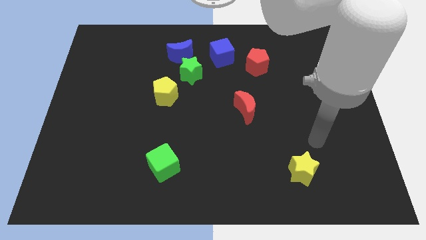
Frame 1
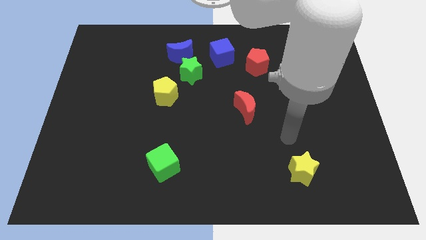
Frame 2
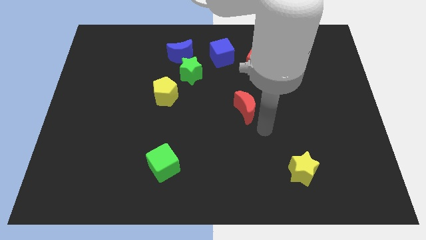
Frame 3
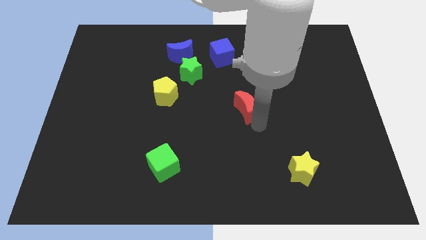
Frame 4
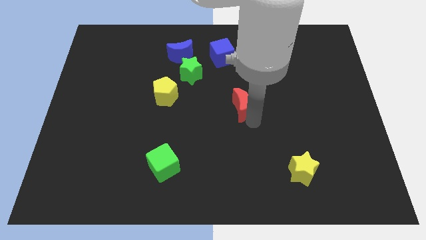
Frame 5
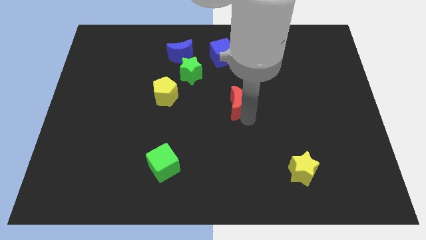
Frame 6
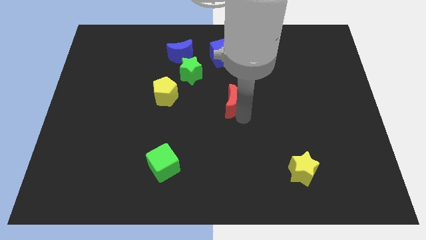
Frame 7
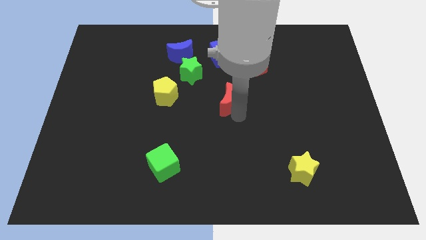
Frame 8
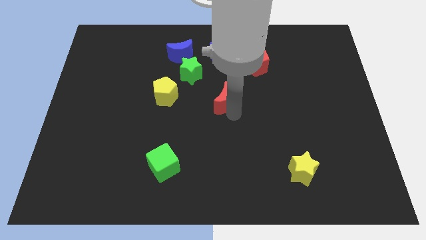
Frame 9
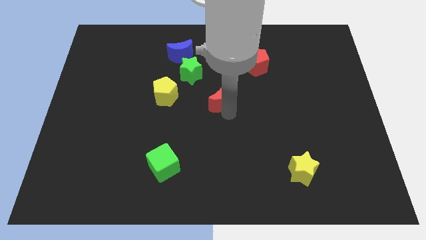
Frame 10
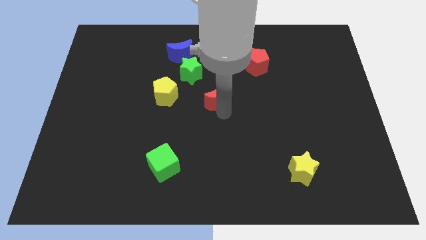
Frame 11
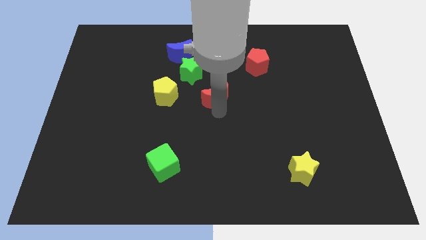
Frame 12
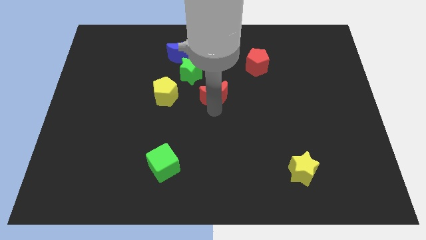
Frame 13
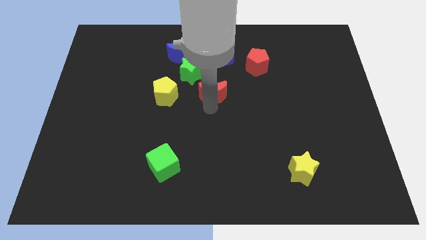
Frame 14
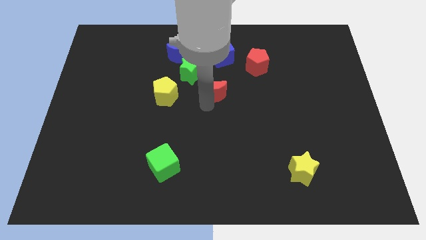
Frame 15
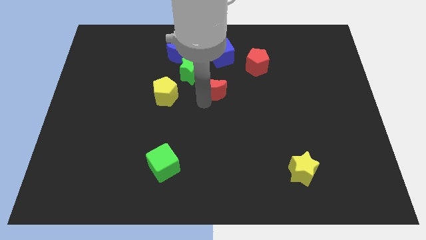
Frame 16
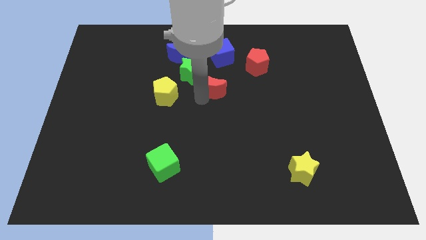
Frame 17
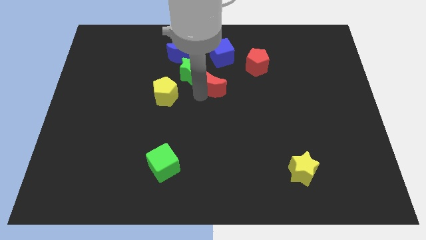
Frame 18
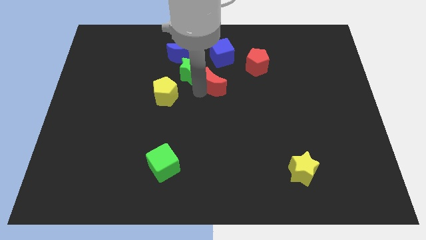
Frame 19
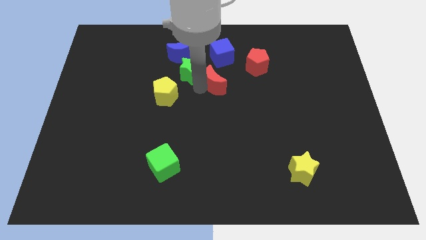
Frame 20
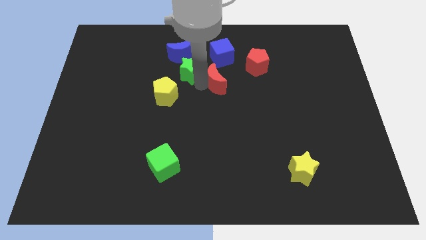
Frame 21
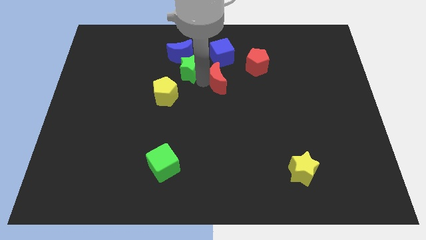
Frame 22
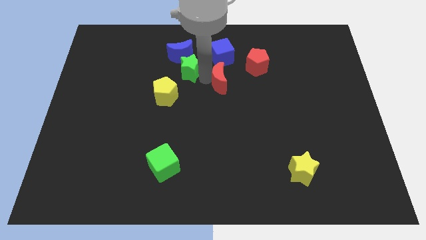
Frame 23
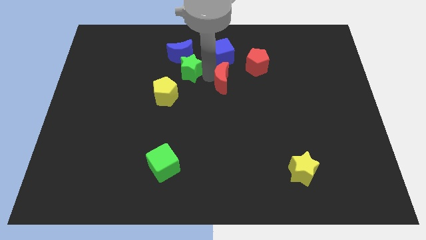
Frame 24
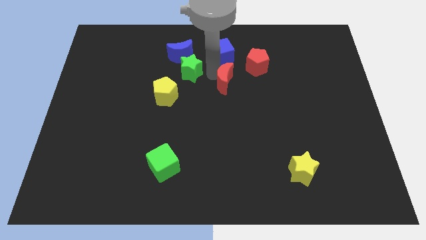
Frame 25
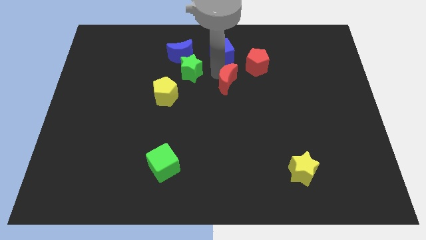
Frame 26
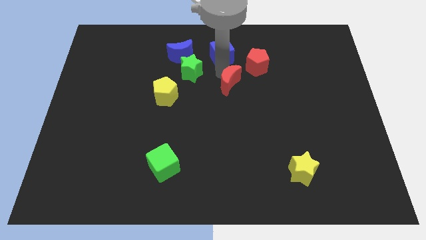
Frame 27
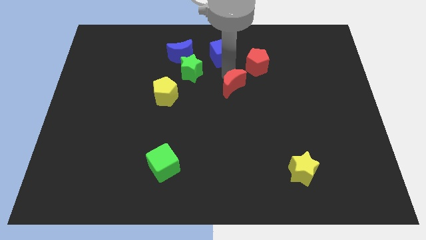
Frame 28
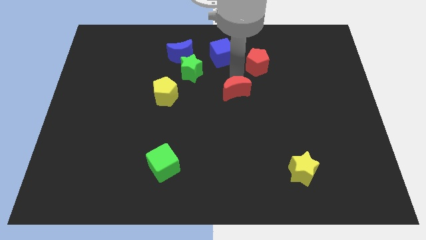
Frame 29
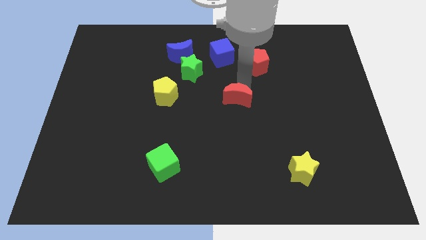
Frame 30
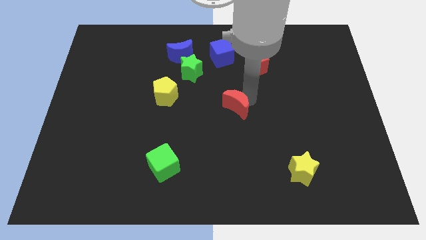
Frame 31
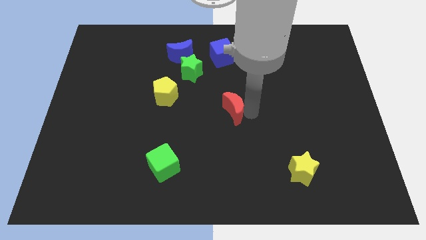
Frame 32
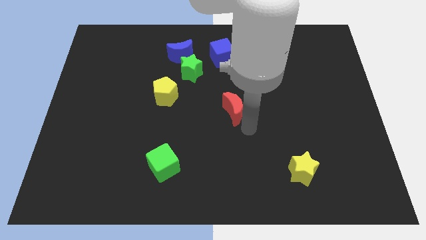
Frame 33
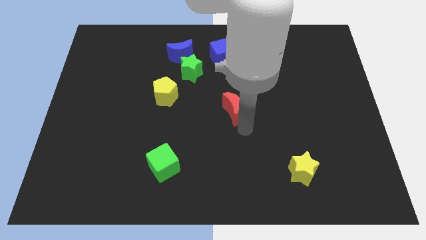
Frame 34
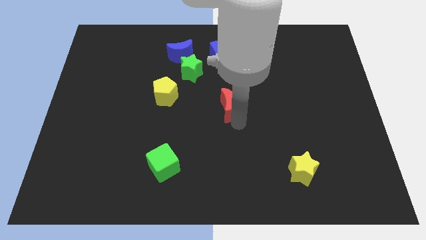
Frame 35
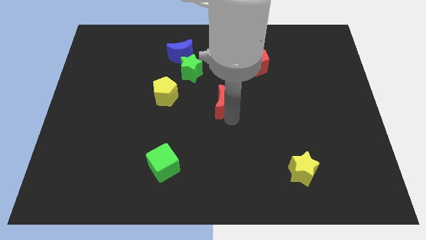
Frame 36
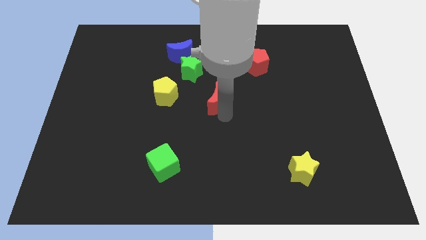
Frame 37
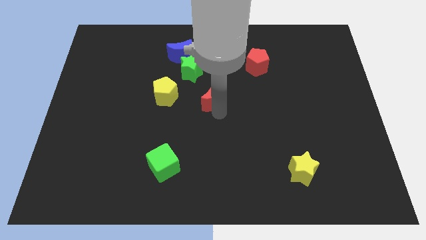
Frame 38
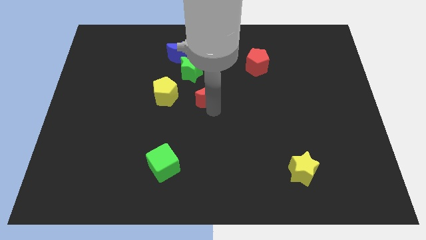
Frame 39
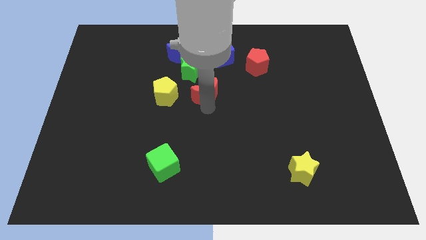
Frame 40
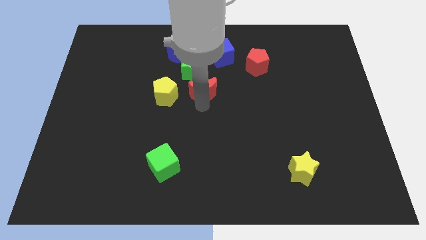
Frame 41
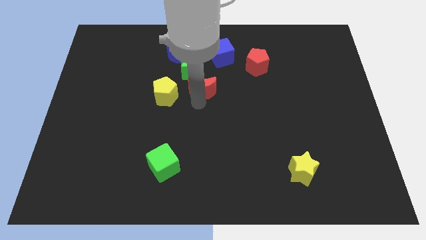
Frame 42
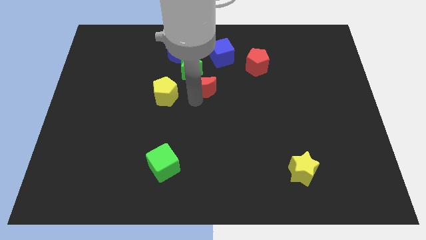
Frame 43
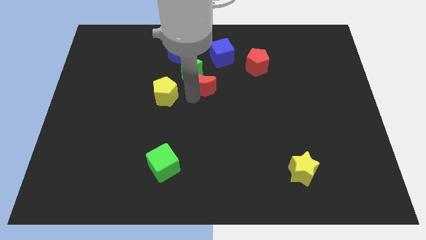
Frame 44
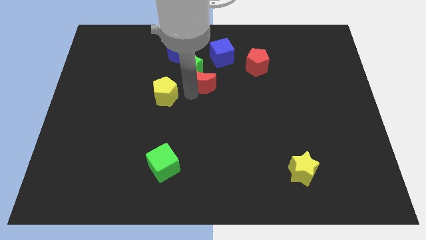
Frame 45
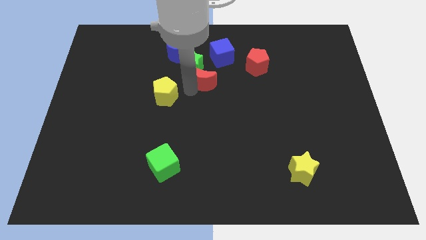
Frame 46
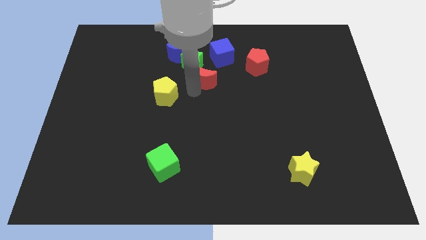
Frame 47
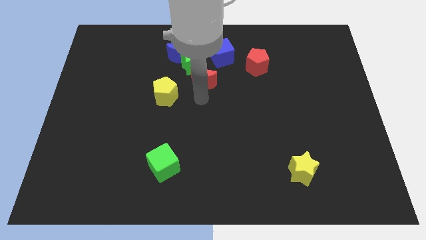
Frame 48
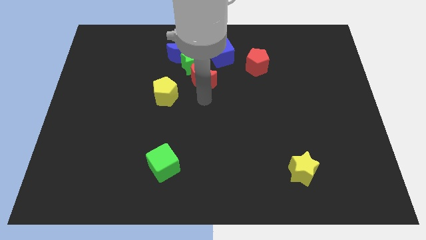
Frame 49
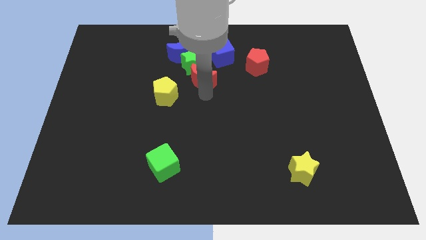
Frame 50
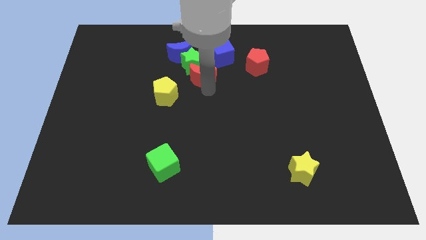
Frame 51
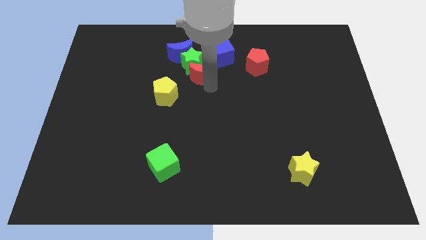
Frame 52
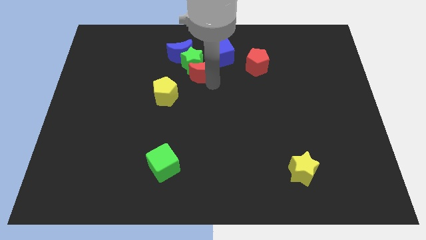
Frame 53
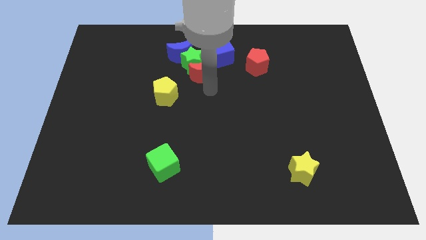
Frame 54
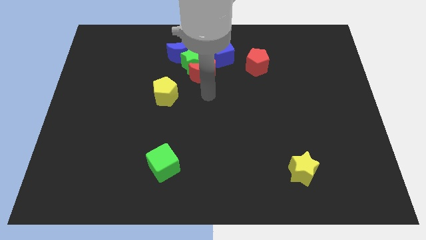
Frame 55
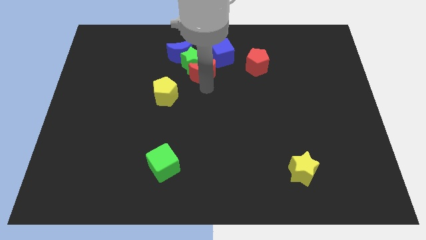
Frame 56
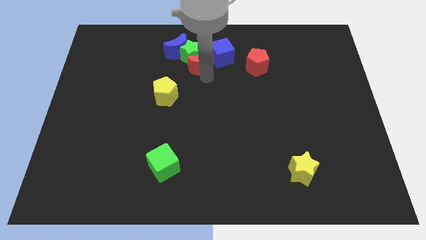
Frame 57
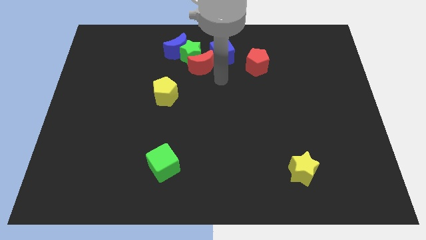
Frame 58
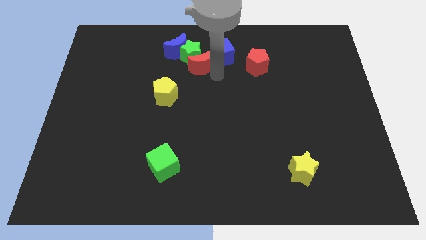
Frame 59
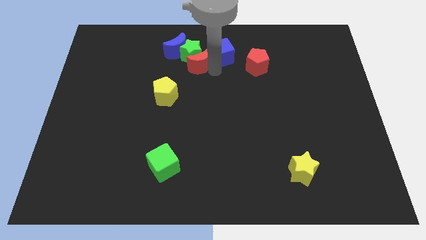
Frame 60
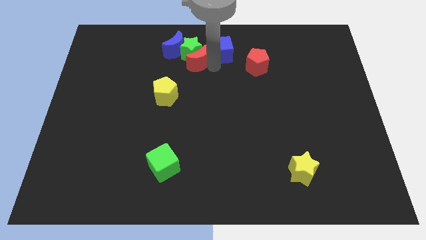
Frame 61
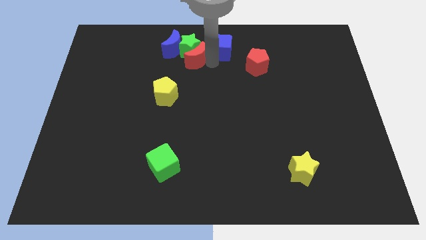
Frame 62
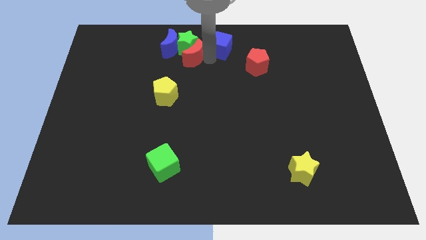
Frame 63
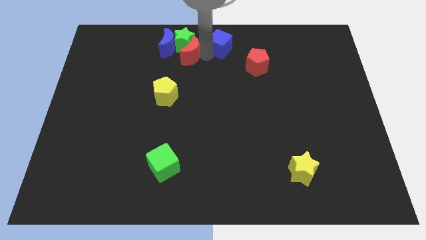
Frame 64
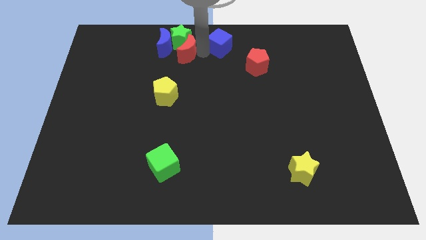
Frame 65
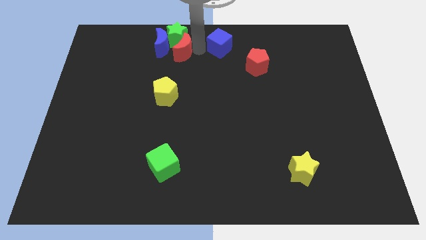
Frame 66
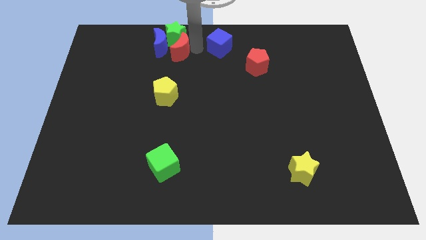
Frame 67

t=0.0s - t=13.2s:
move the red moon close to the blue moon

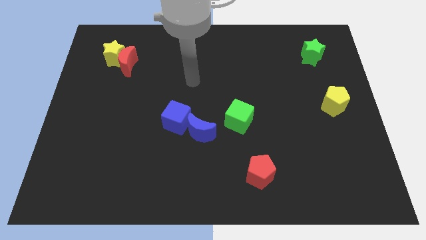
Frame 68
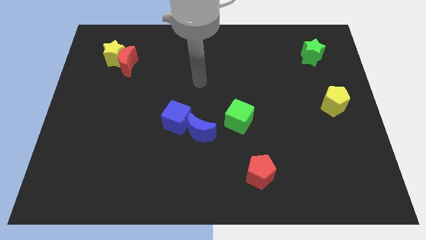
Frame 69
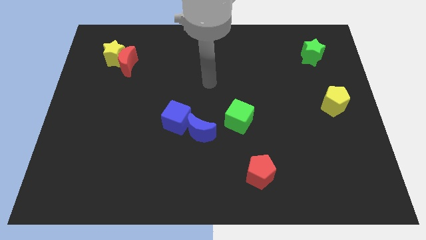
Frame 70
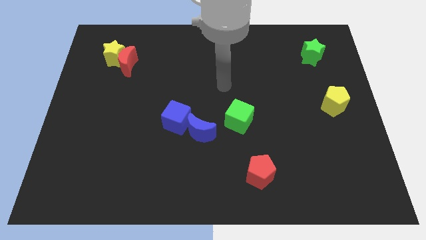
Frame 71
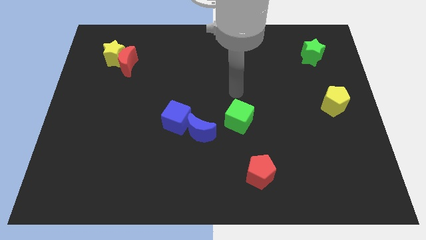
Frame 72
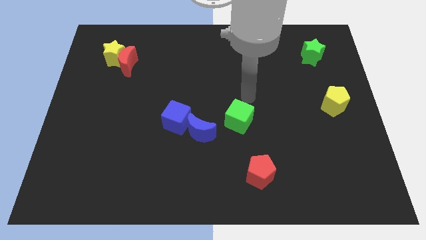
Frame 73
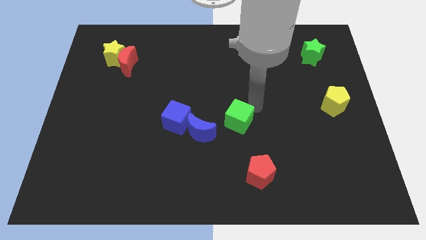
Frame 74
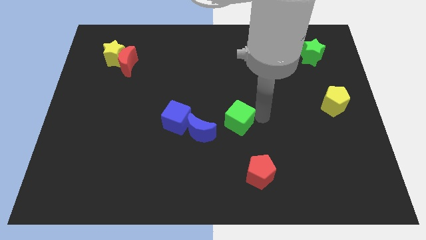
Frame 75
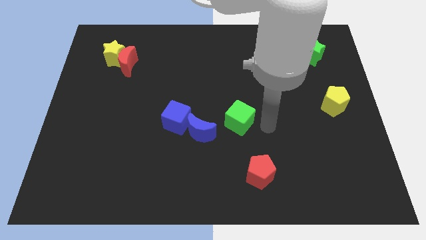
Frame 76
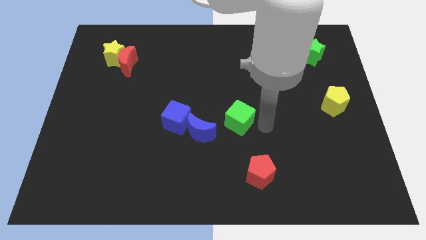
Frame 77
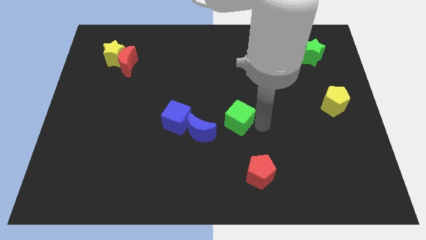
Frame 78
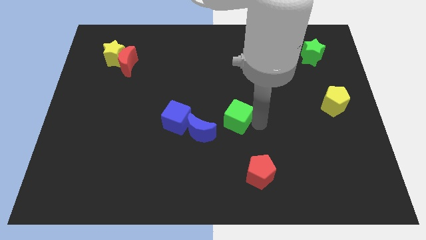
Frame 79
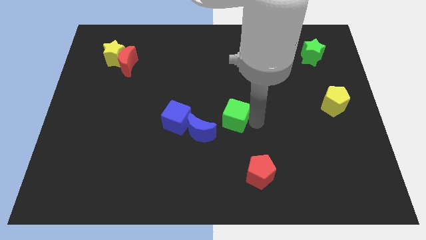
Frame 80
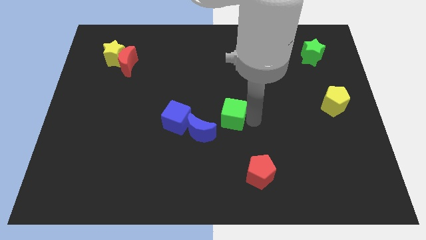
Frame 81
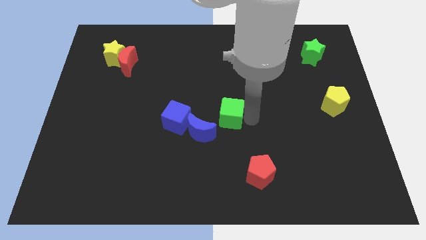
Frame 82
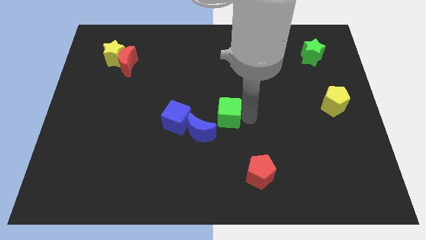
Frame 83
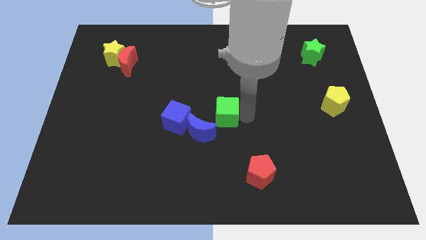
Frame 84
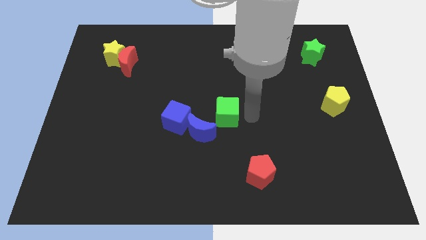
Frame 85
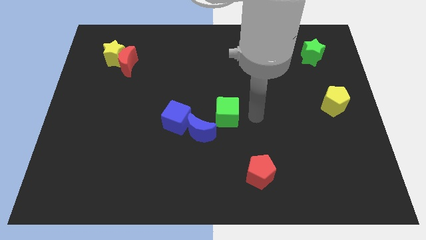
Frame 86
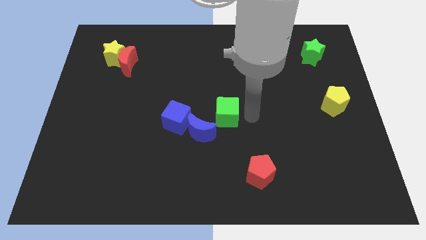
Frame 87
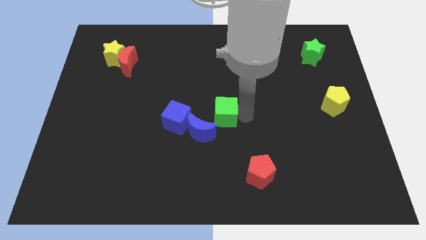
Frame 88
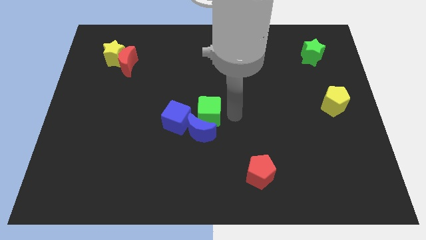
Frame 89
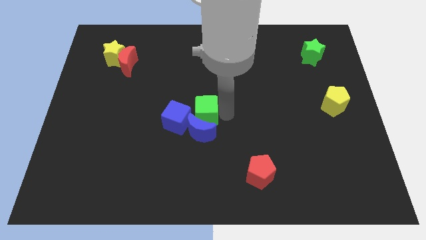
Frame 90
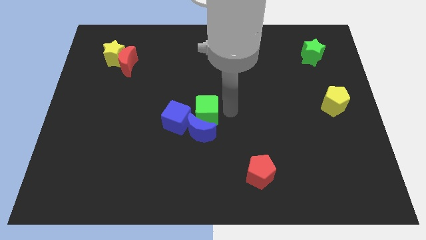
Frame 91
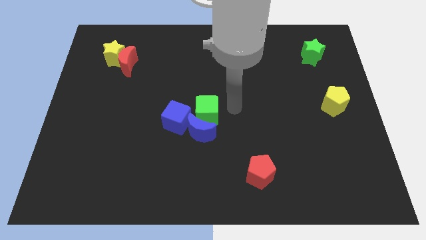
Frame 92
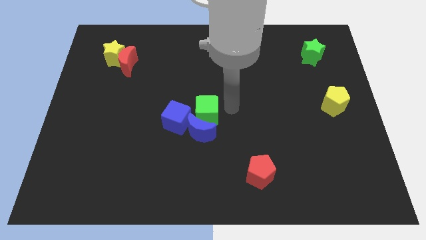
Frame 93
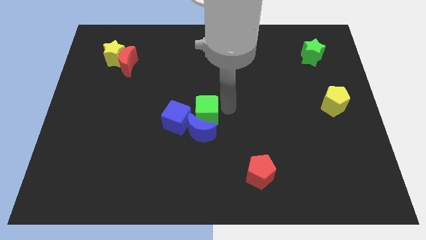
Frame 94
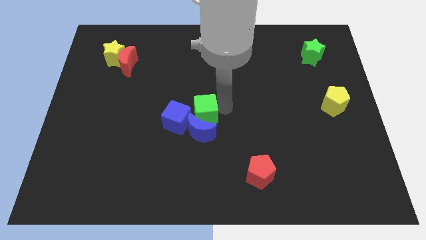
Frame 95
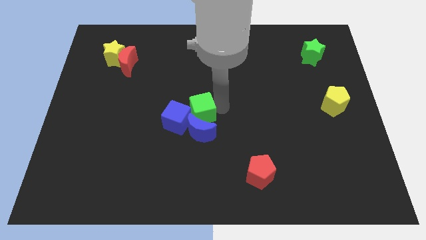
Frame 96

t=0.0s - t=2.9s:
push the green cube towards the blue cube
